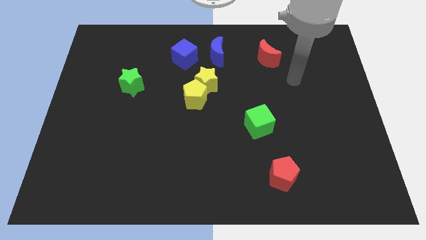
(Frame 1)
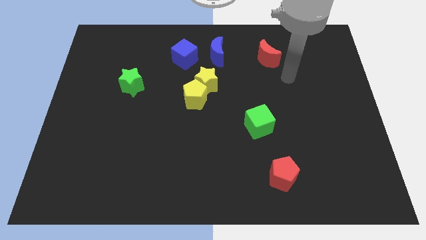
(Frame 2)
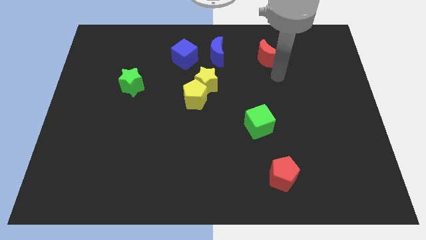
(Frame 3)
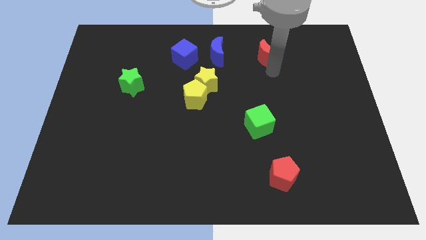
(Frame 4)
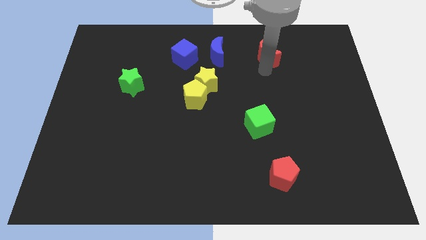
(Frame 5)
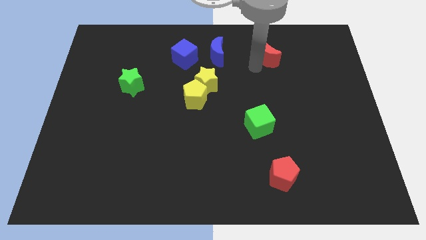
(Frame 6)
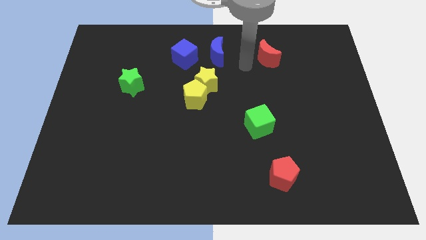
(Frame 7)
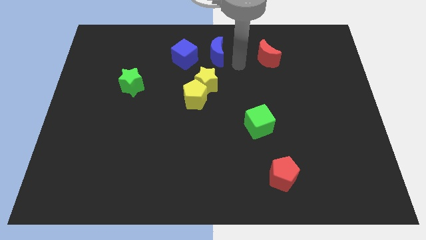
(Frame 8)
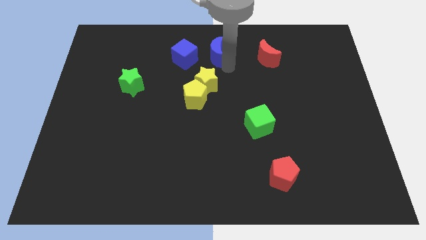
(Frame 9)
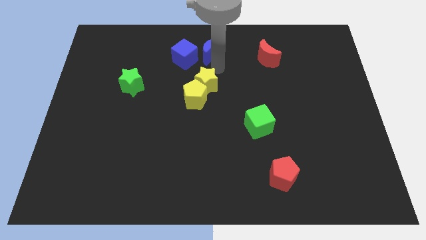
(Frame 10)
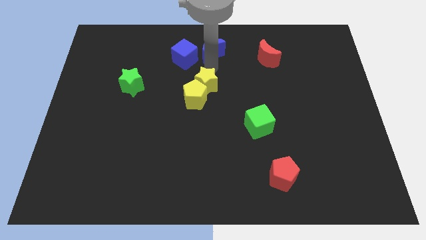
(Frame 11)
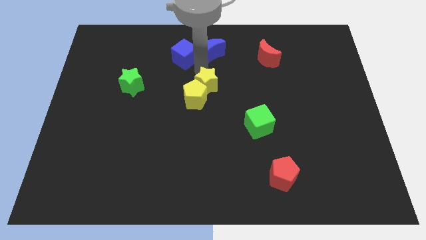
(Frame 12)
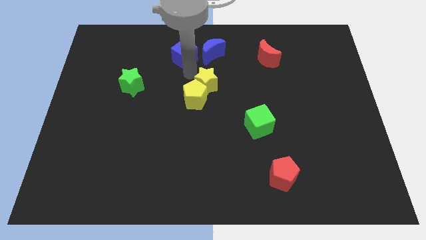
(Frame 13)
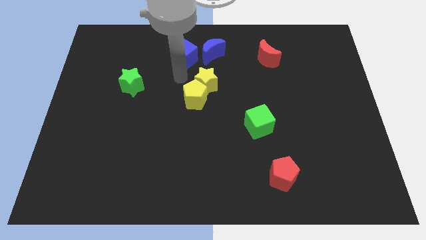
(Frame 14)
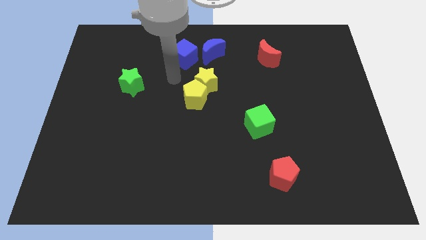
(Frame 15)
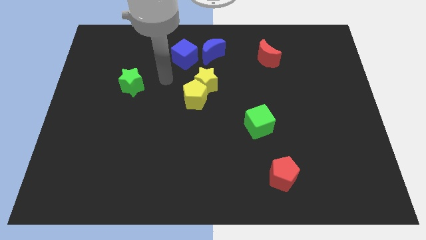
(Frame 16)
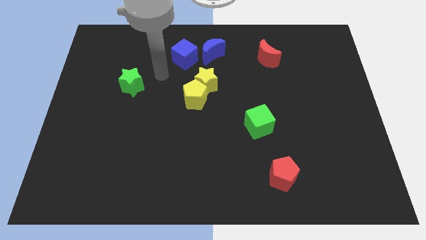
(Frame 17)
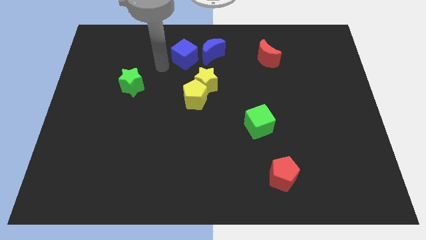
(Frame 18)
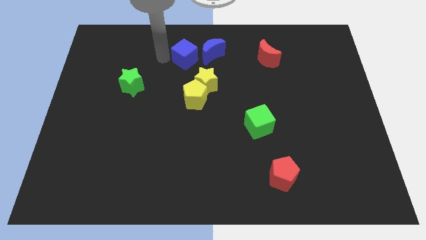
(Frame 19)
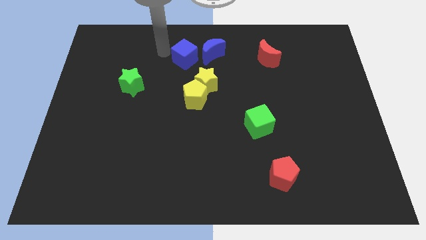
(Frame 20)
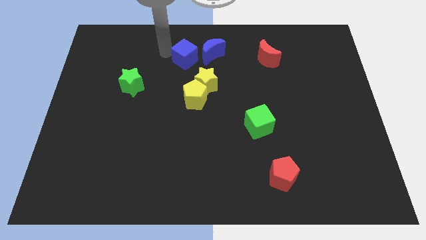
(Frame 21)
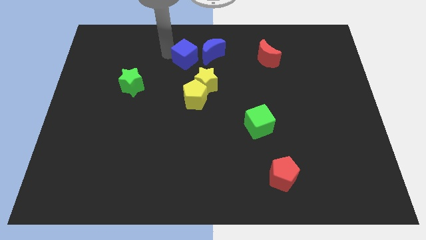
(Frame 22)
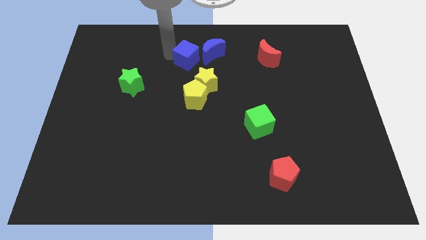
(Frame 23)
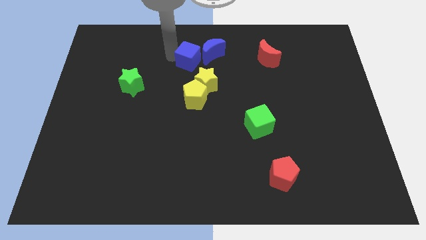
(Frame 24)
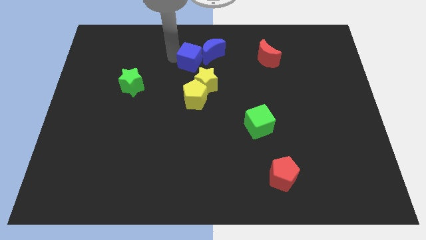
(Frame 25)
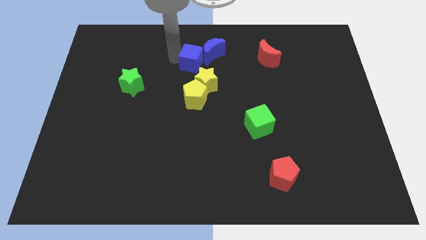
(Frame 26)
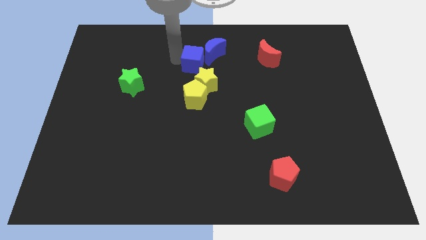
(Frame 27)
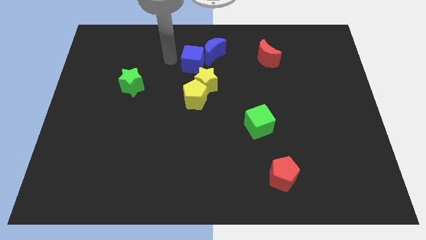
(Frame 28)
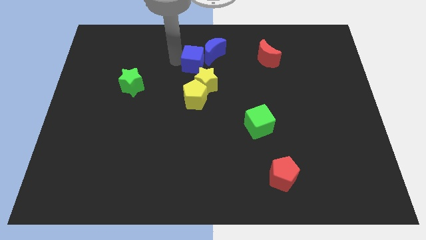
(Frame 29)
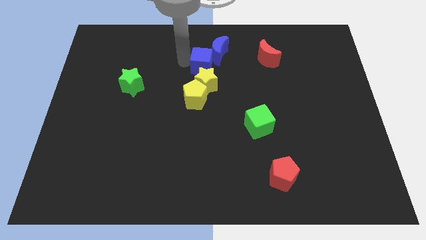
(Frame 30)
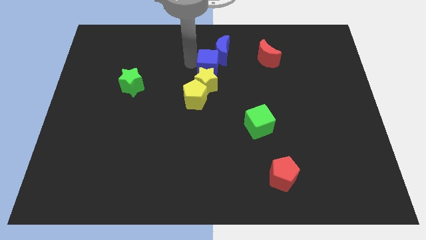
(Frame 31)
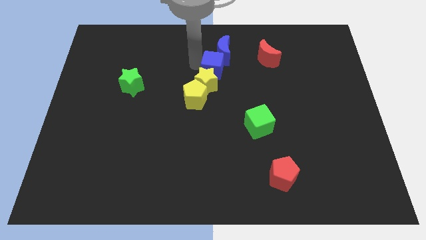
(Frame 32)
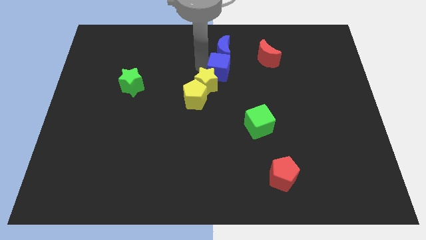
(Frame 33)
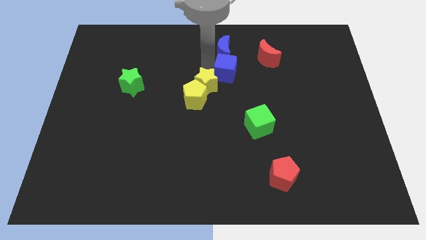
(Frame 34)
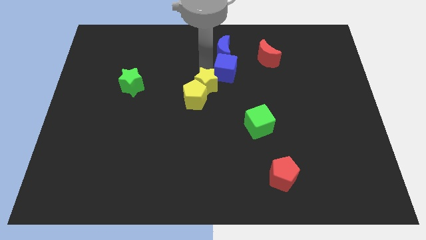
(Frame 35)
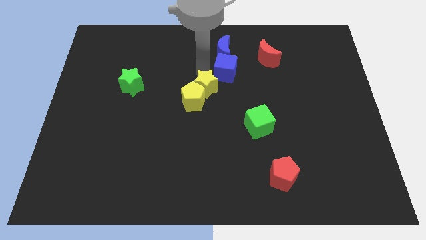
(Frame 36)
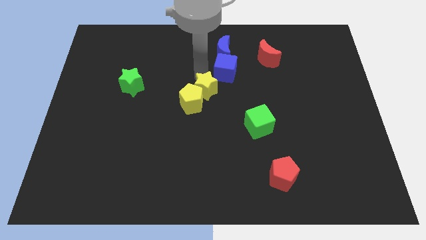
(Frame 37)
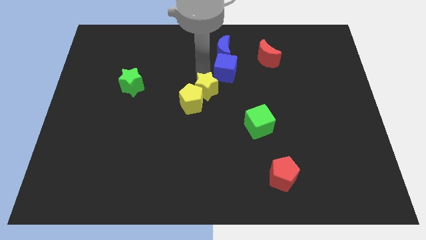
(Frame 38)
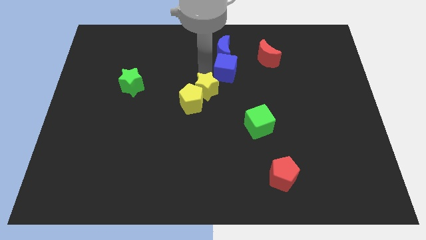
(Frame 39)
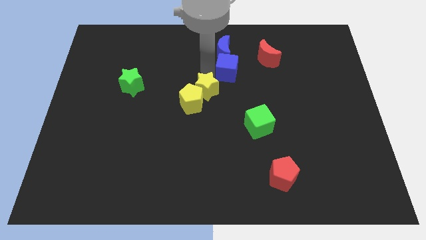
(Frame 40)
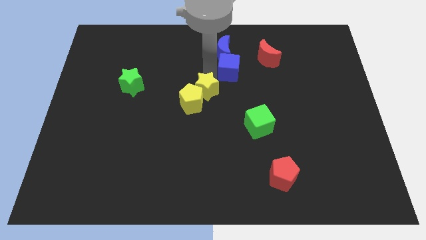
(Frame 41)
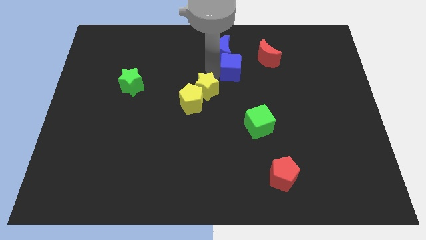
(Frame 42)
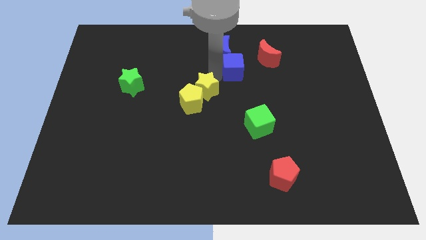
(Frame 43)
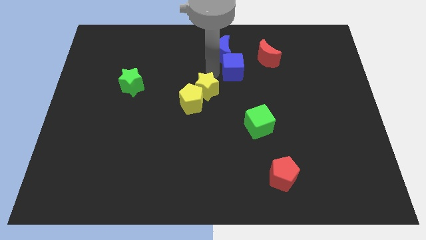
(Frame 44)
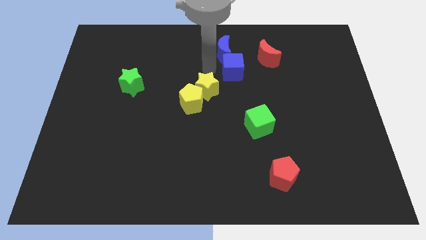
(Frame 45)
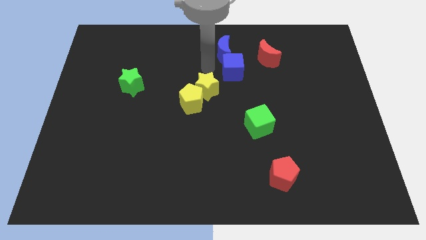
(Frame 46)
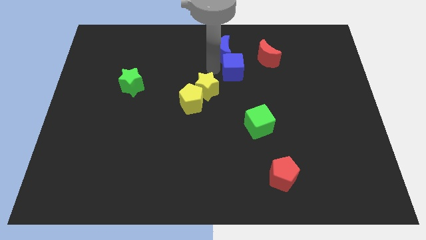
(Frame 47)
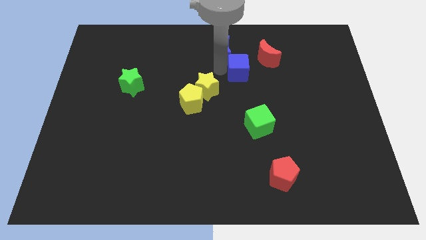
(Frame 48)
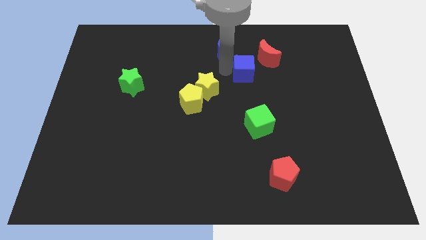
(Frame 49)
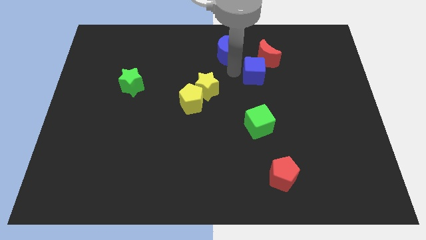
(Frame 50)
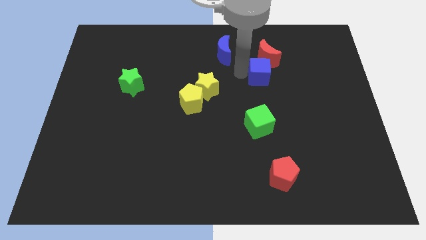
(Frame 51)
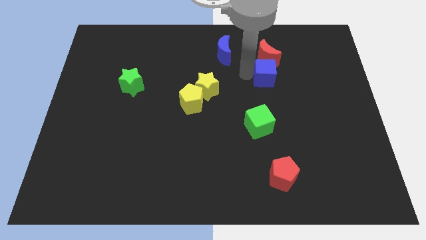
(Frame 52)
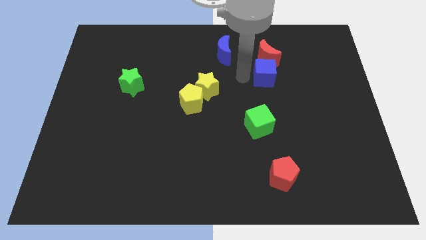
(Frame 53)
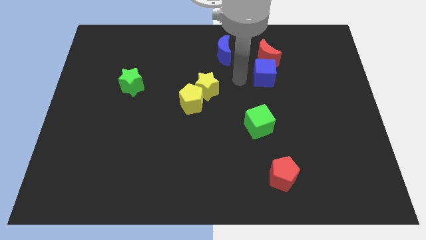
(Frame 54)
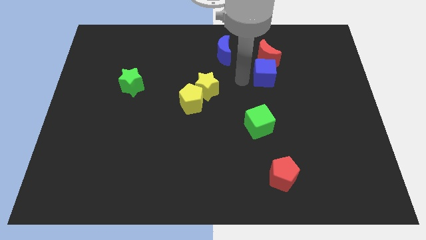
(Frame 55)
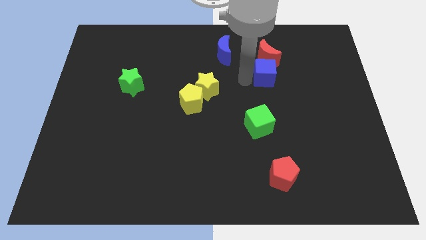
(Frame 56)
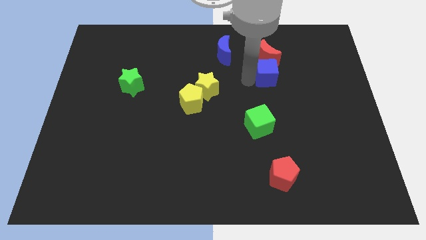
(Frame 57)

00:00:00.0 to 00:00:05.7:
slide the blue cube to the bottom right of the red moon
